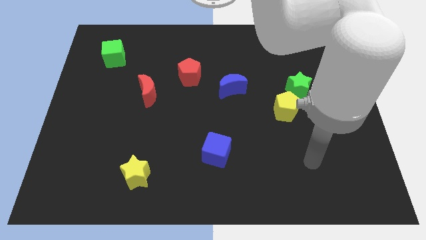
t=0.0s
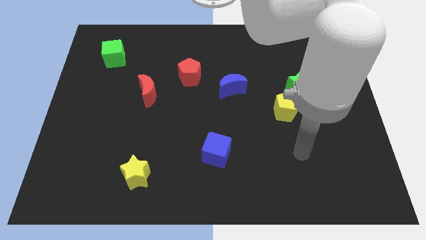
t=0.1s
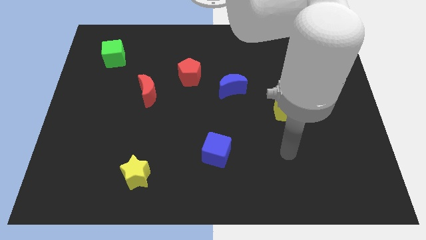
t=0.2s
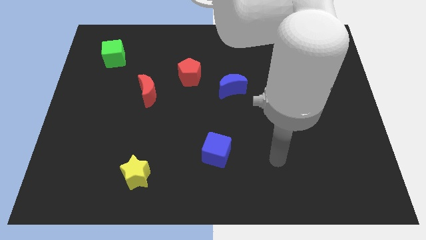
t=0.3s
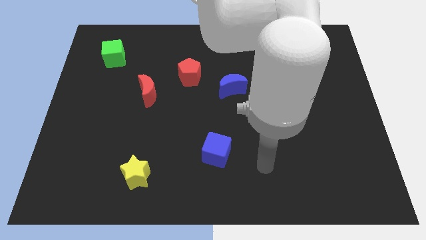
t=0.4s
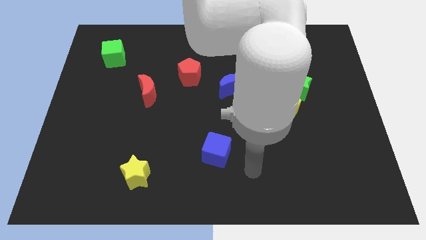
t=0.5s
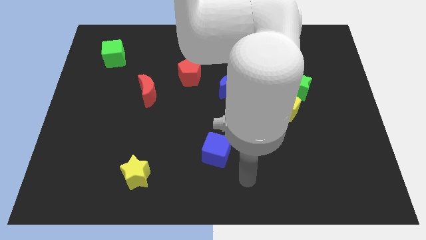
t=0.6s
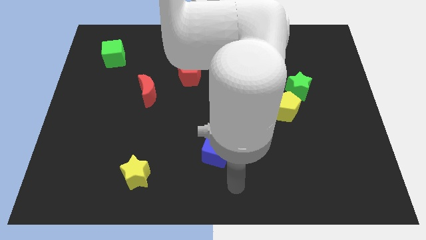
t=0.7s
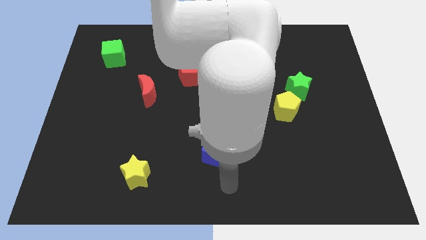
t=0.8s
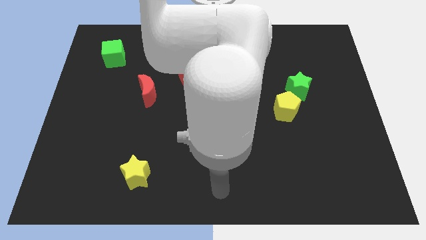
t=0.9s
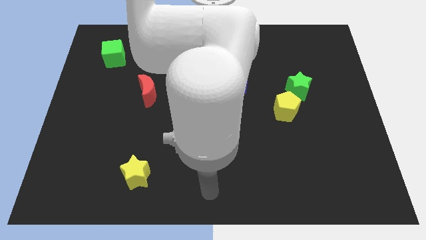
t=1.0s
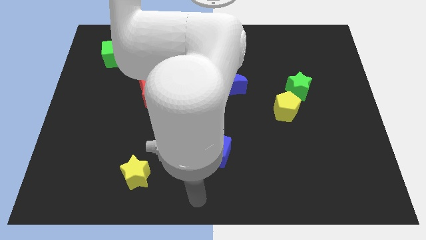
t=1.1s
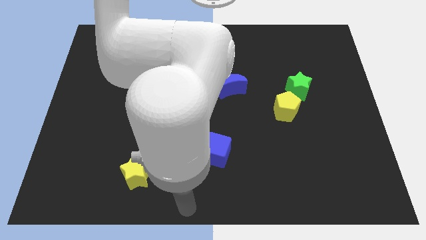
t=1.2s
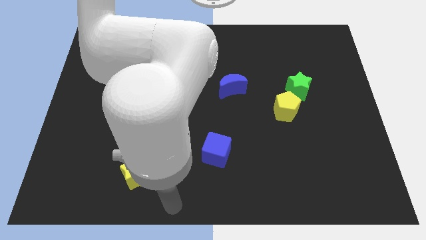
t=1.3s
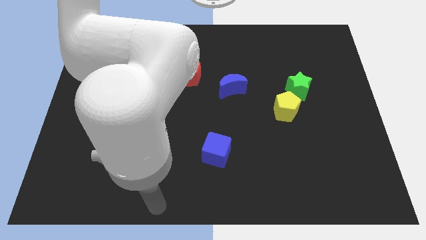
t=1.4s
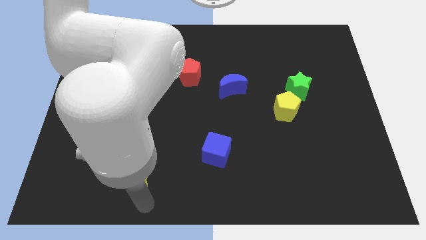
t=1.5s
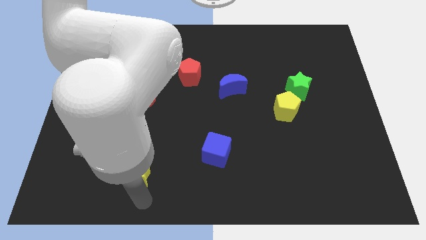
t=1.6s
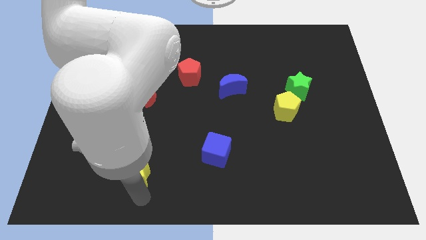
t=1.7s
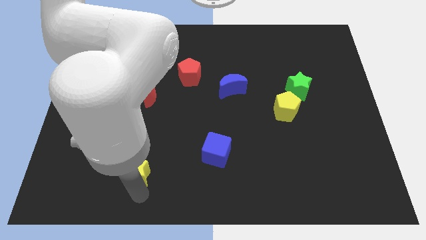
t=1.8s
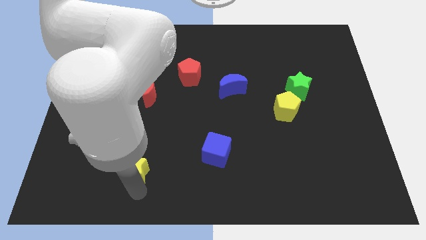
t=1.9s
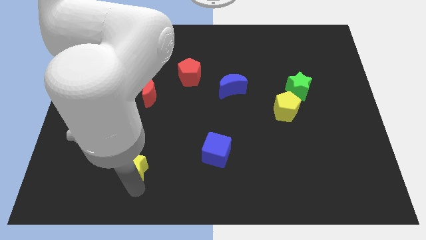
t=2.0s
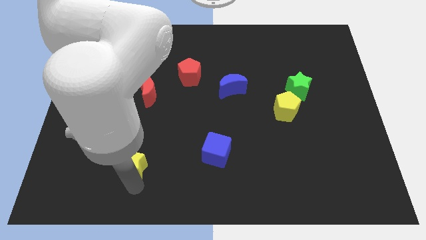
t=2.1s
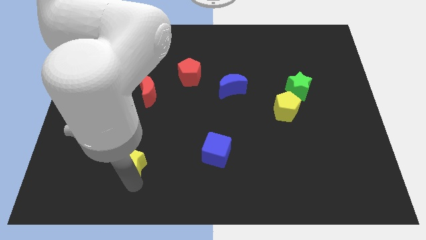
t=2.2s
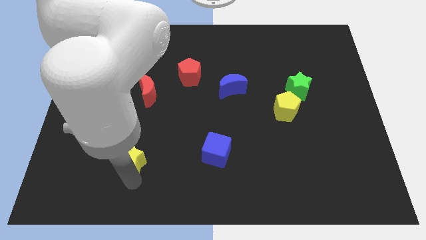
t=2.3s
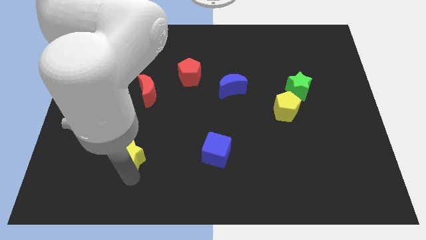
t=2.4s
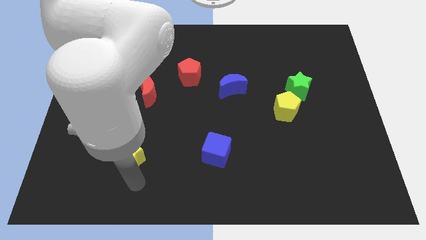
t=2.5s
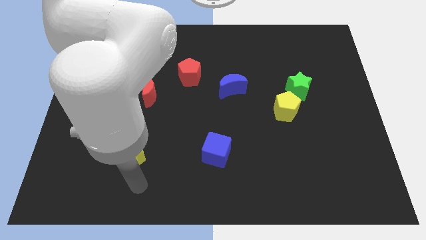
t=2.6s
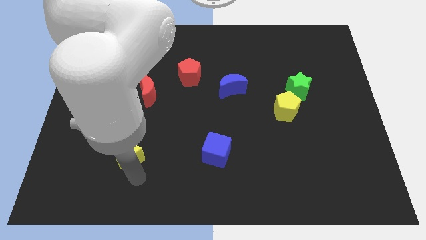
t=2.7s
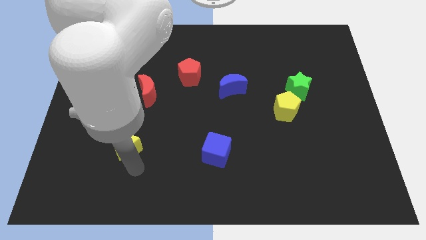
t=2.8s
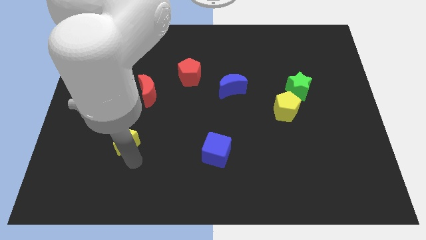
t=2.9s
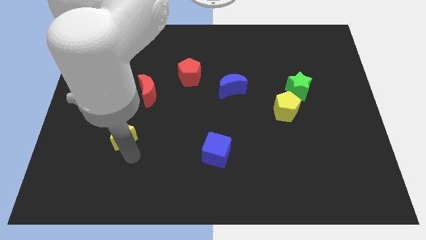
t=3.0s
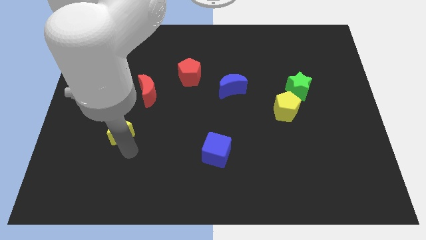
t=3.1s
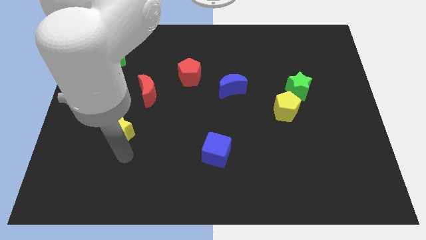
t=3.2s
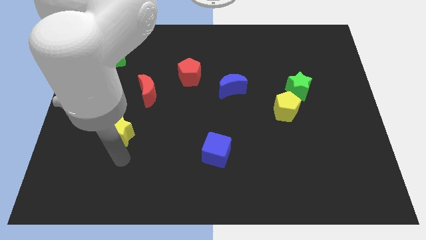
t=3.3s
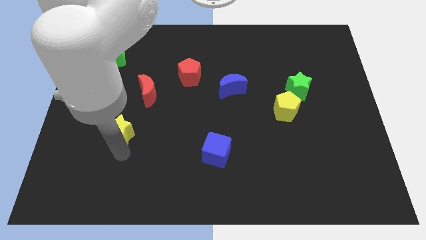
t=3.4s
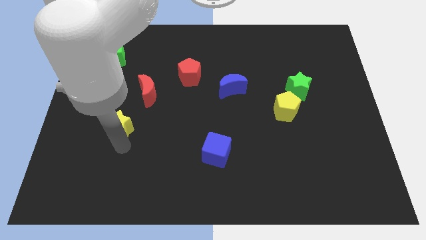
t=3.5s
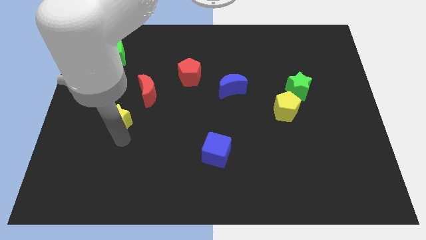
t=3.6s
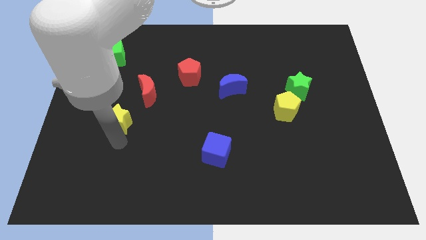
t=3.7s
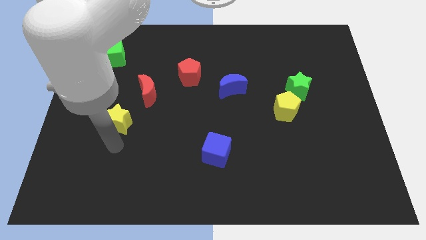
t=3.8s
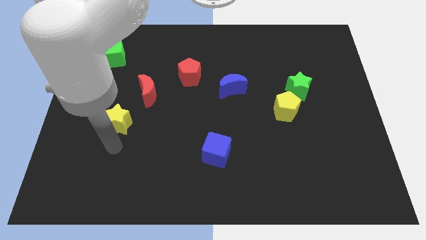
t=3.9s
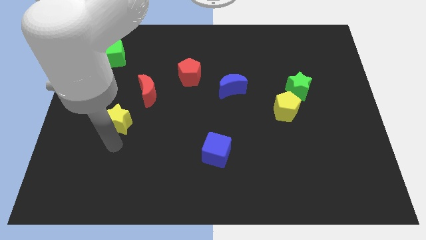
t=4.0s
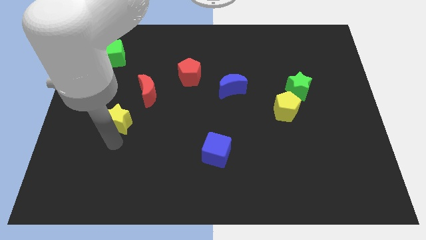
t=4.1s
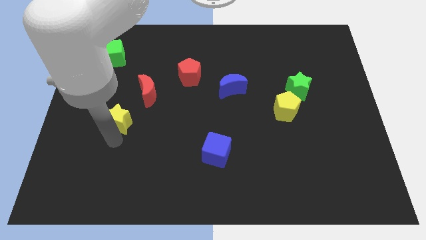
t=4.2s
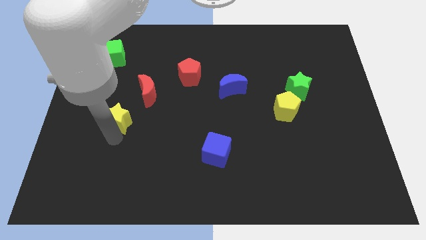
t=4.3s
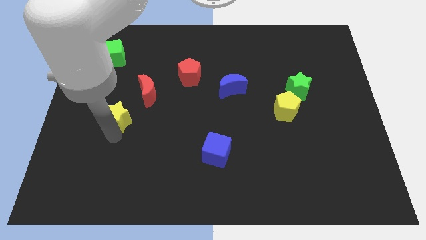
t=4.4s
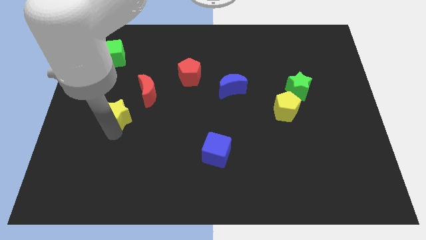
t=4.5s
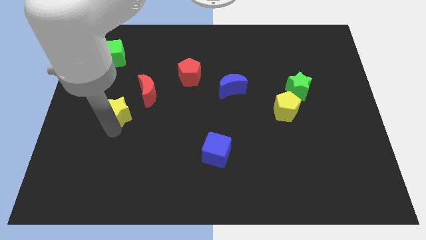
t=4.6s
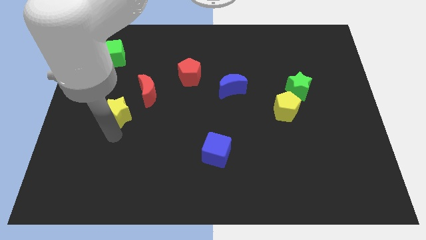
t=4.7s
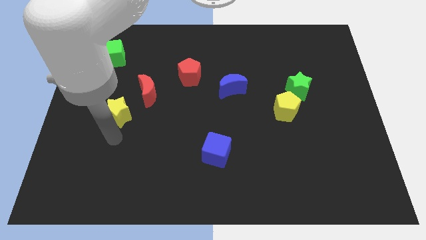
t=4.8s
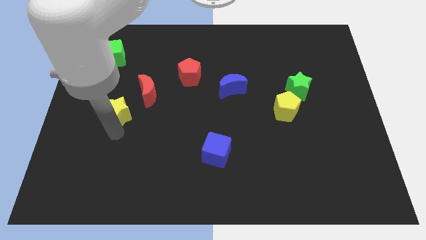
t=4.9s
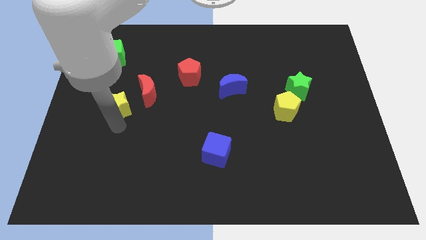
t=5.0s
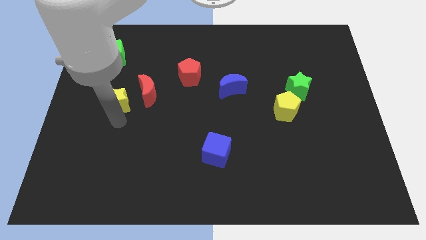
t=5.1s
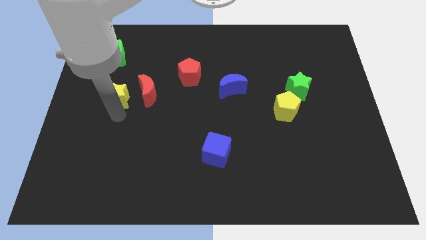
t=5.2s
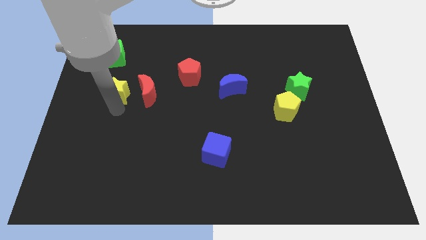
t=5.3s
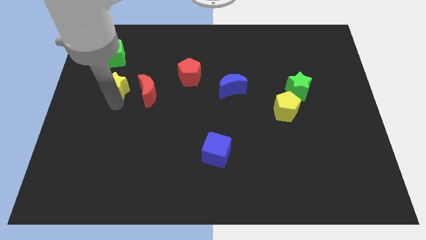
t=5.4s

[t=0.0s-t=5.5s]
push the yellow star upwards

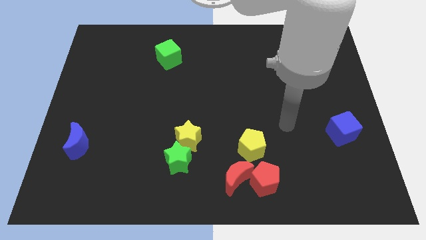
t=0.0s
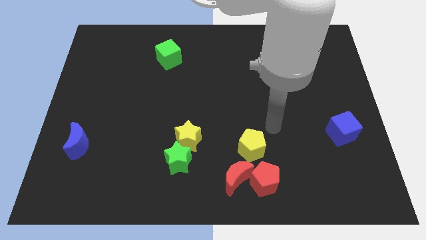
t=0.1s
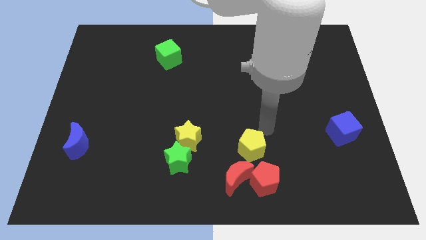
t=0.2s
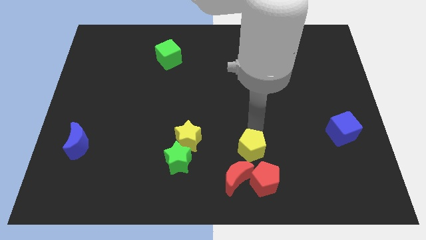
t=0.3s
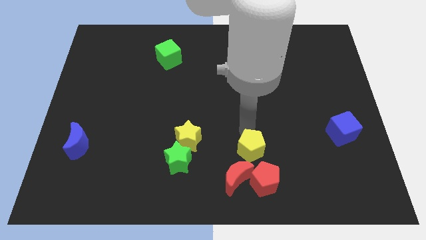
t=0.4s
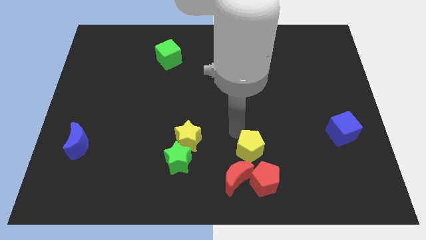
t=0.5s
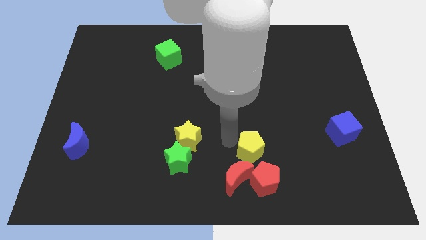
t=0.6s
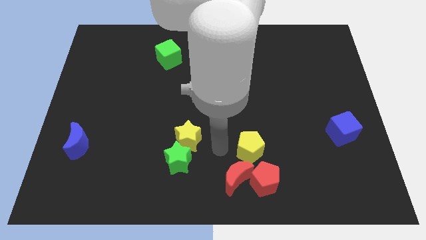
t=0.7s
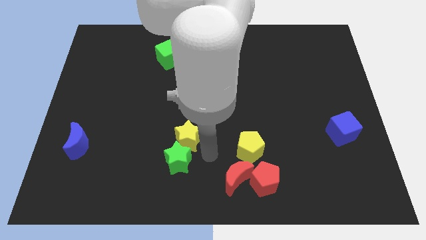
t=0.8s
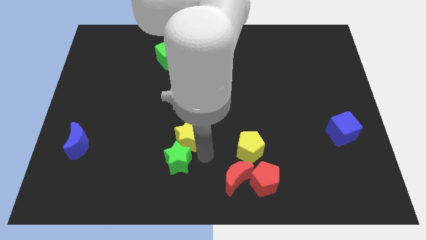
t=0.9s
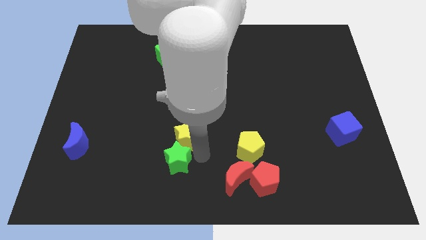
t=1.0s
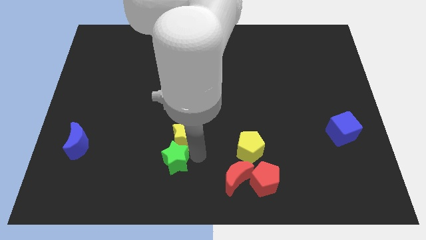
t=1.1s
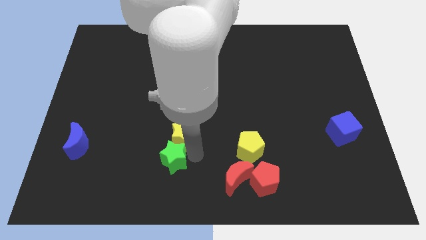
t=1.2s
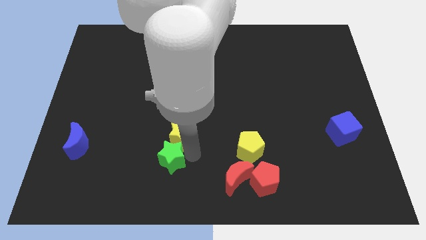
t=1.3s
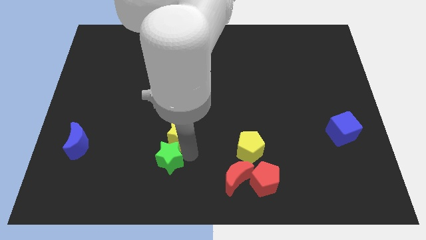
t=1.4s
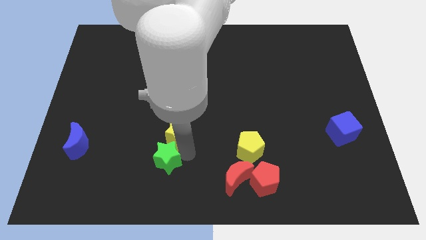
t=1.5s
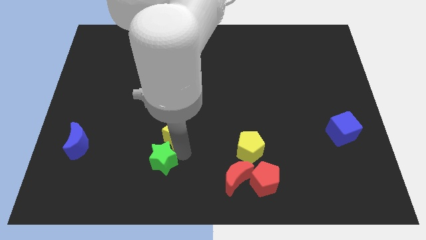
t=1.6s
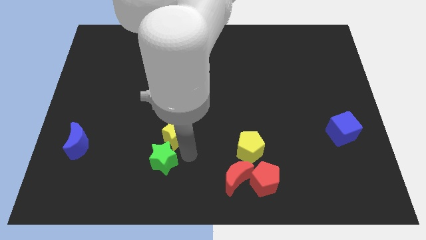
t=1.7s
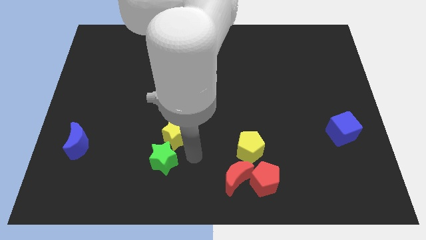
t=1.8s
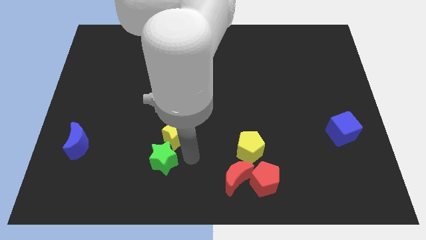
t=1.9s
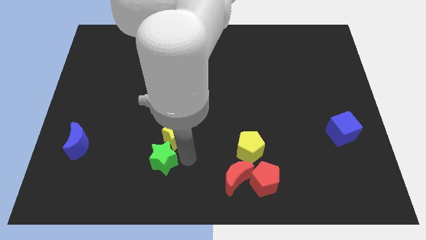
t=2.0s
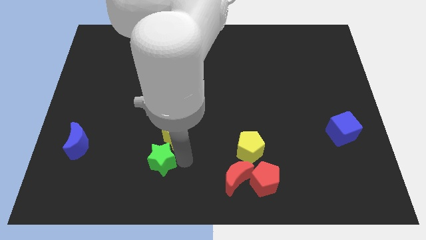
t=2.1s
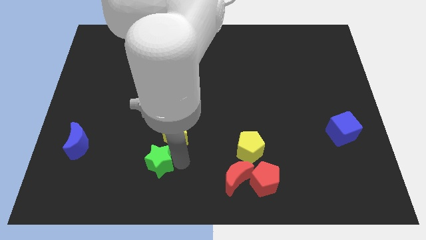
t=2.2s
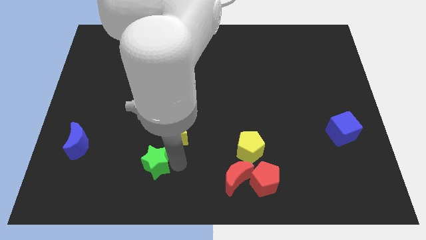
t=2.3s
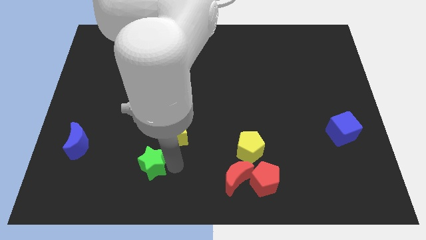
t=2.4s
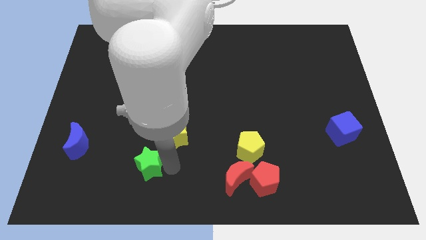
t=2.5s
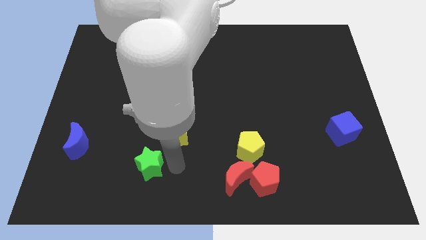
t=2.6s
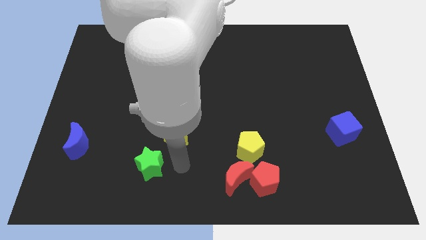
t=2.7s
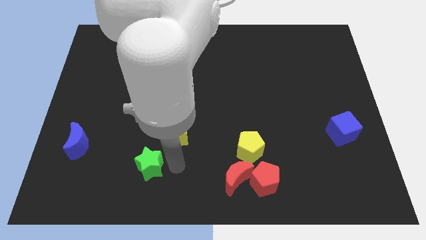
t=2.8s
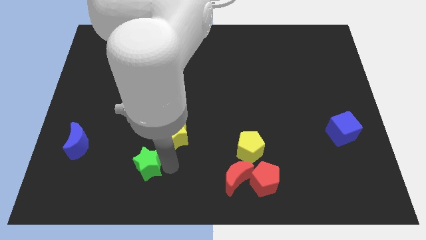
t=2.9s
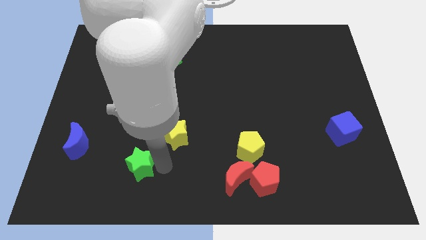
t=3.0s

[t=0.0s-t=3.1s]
slide the green star left a bit
